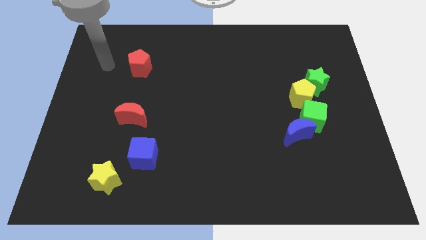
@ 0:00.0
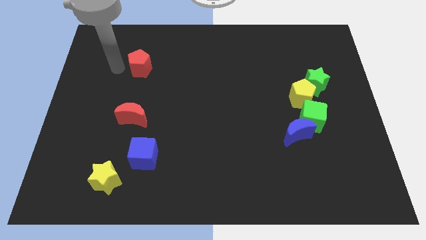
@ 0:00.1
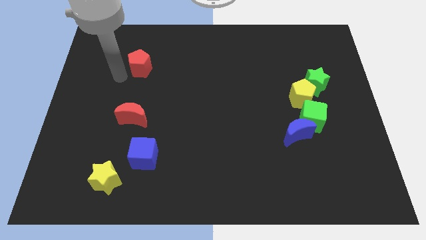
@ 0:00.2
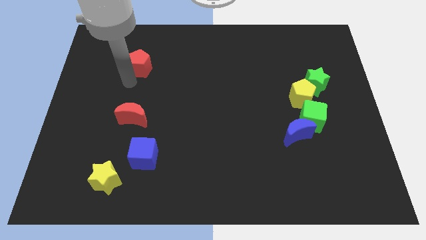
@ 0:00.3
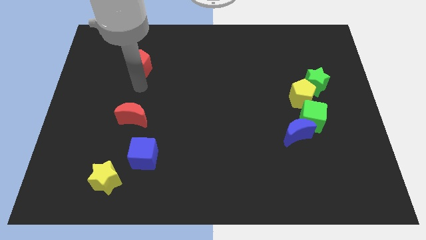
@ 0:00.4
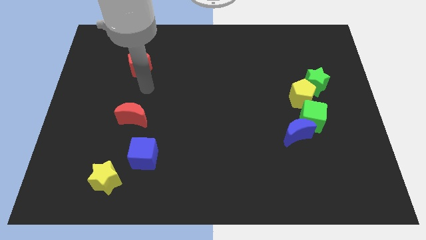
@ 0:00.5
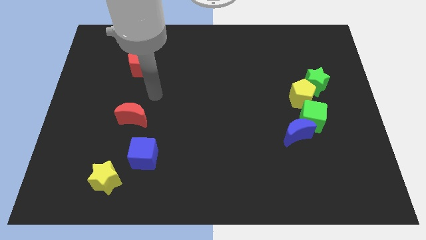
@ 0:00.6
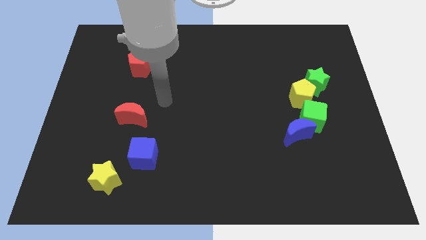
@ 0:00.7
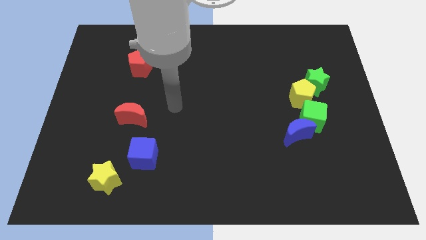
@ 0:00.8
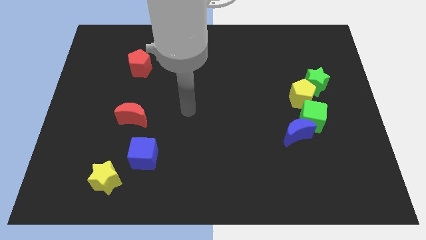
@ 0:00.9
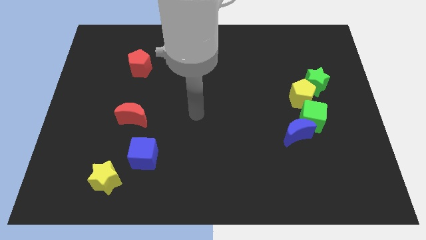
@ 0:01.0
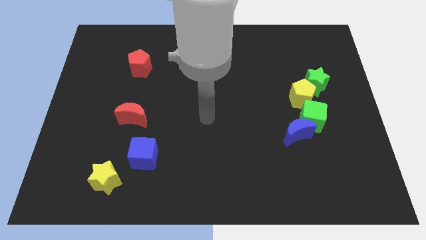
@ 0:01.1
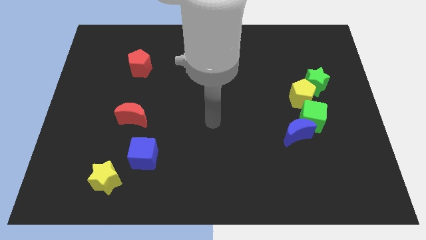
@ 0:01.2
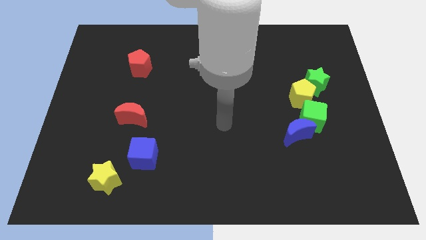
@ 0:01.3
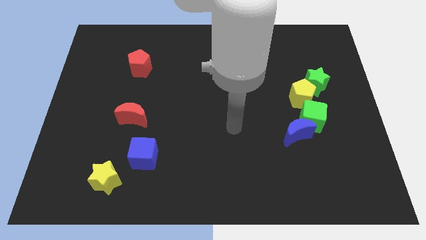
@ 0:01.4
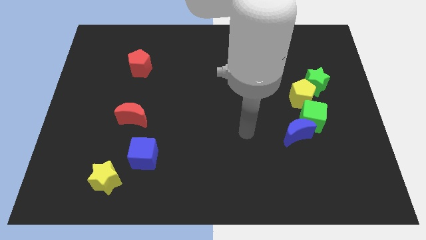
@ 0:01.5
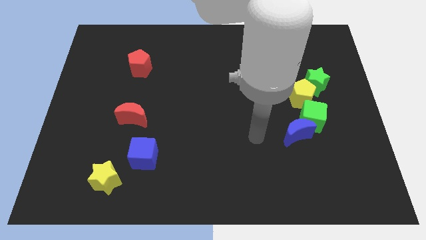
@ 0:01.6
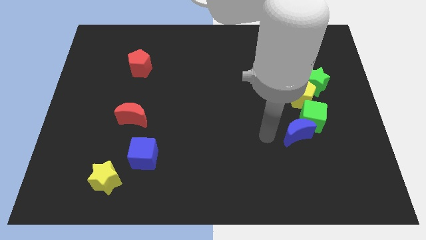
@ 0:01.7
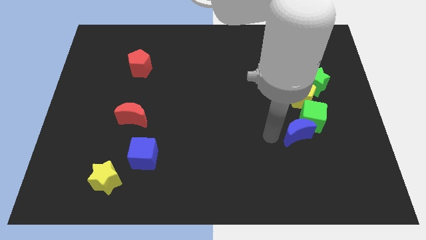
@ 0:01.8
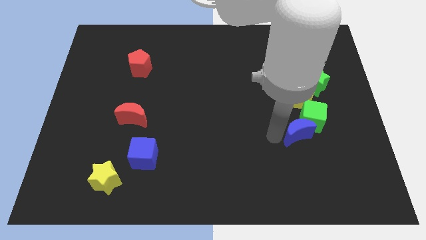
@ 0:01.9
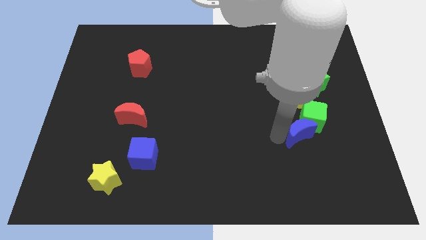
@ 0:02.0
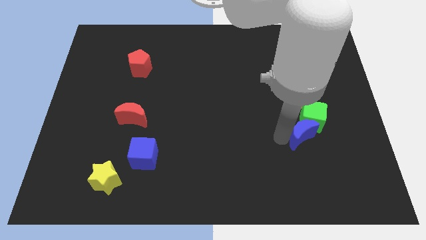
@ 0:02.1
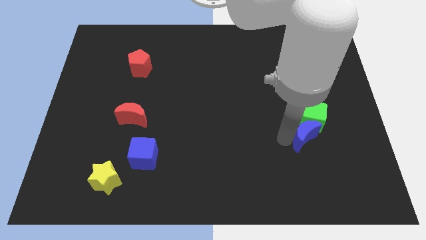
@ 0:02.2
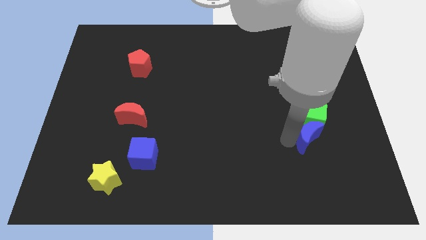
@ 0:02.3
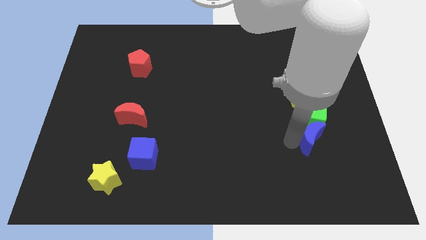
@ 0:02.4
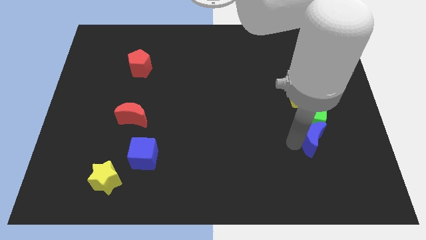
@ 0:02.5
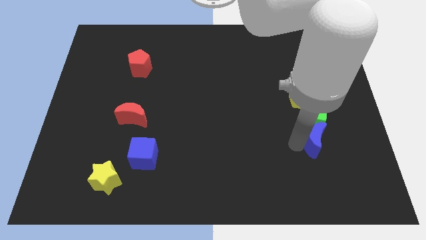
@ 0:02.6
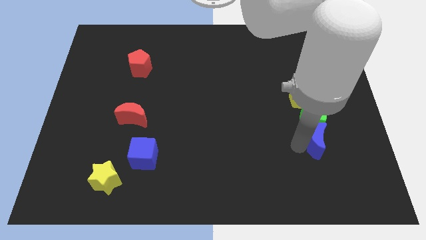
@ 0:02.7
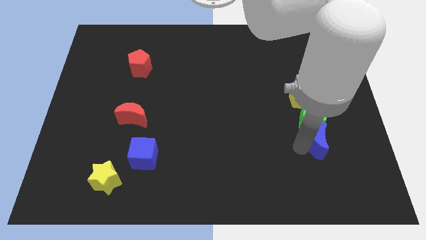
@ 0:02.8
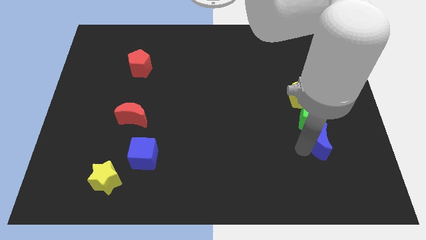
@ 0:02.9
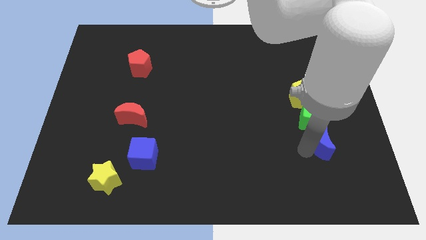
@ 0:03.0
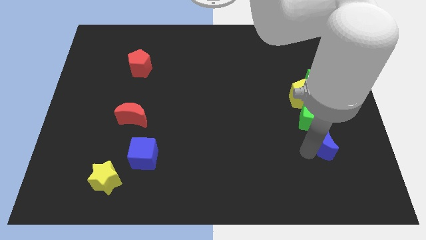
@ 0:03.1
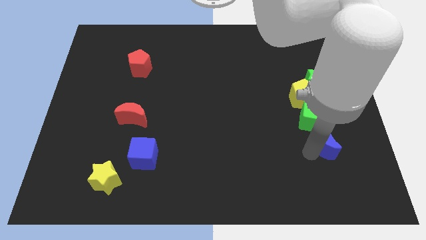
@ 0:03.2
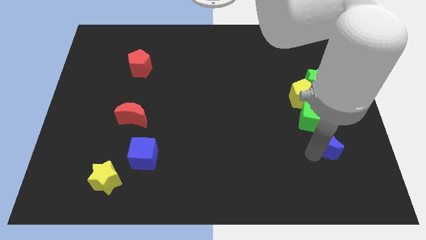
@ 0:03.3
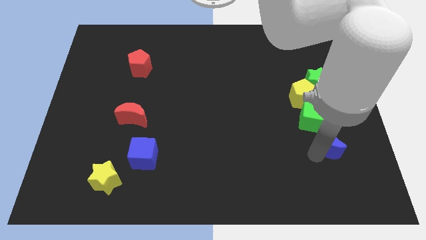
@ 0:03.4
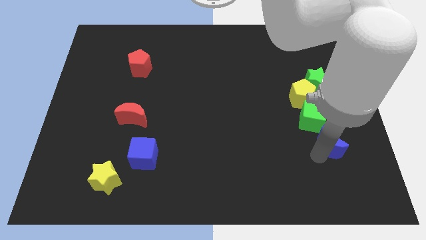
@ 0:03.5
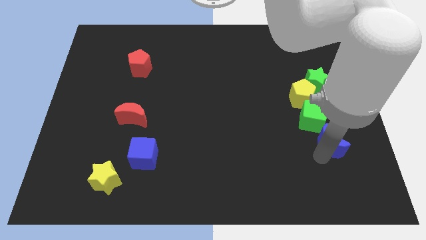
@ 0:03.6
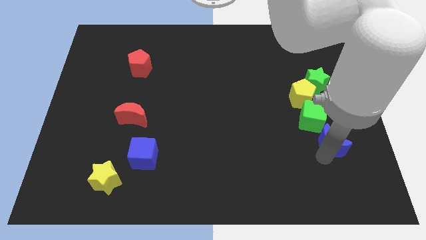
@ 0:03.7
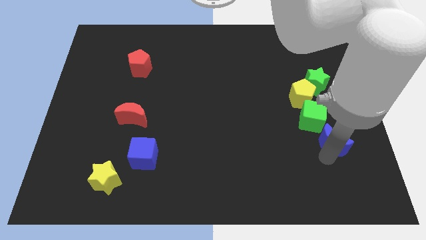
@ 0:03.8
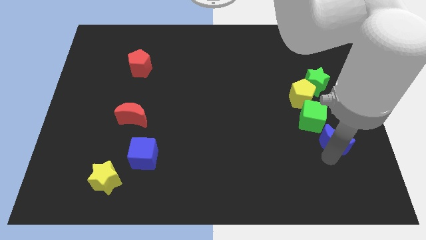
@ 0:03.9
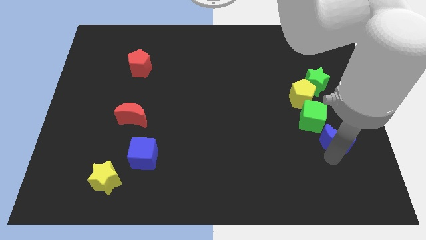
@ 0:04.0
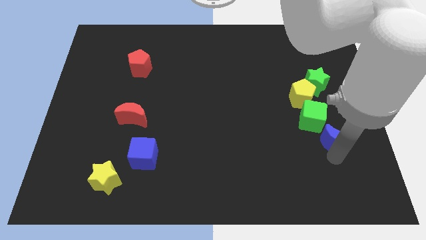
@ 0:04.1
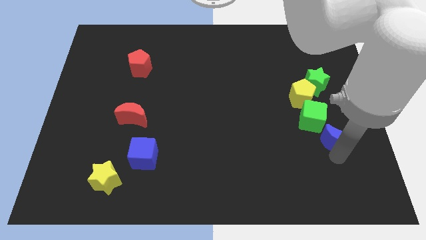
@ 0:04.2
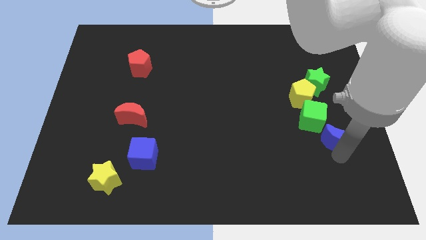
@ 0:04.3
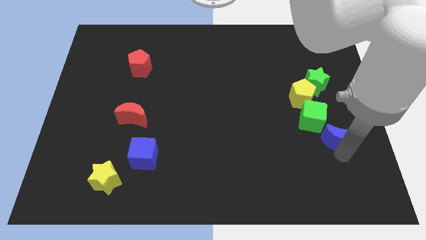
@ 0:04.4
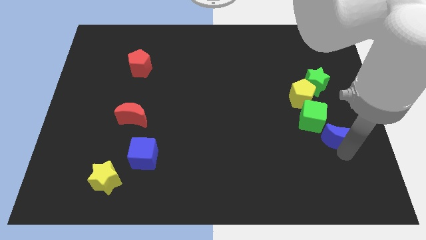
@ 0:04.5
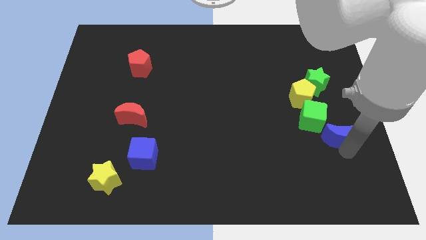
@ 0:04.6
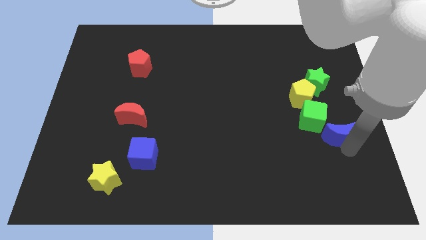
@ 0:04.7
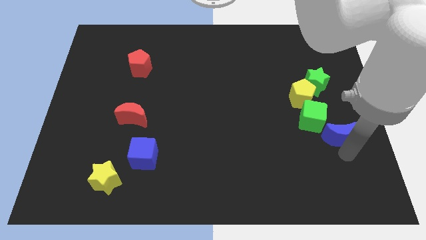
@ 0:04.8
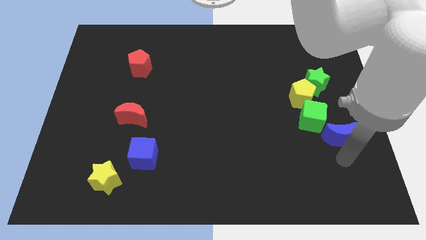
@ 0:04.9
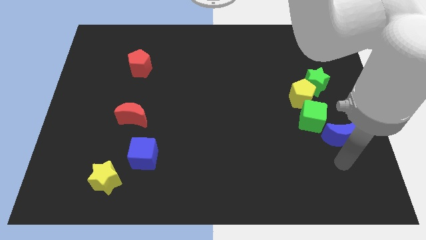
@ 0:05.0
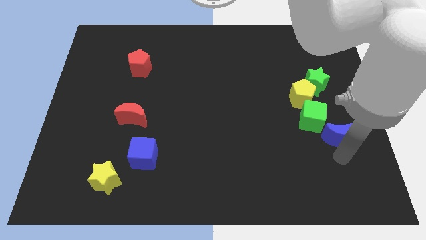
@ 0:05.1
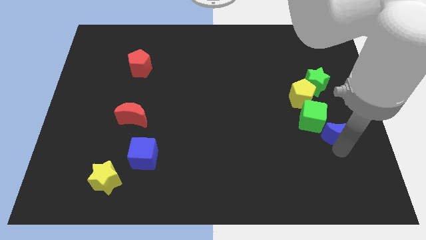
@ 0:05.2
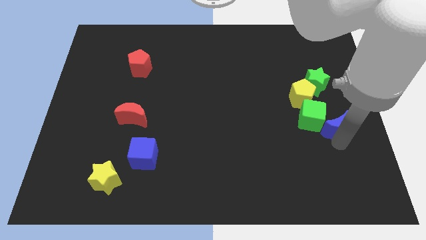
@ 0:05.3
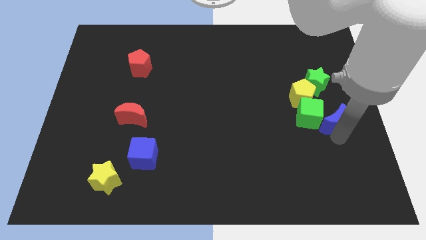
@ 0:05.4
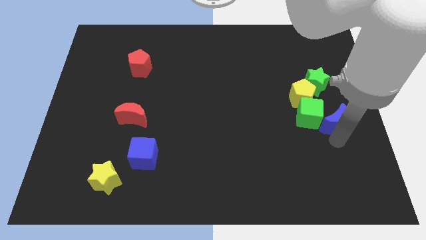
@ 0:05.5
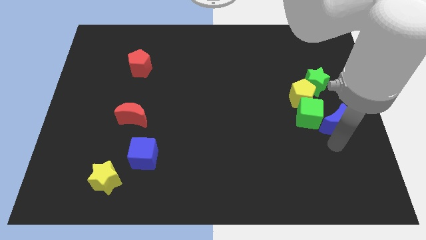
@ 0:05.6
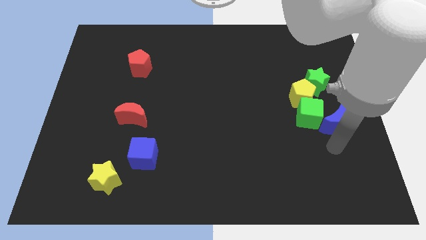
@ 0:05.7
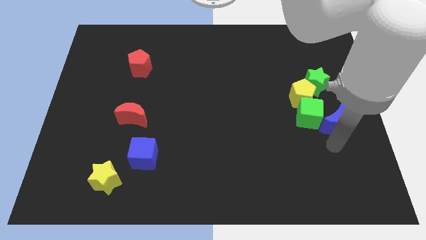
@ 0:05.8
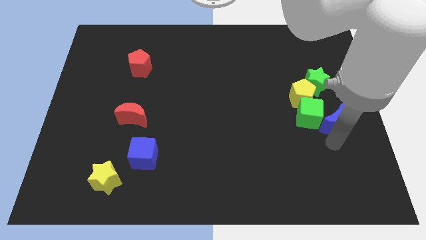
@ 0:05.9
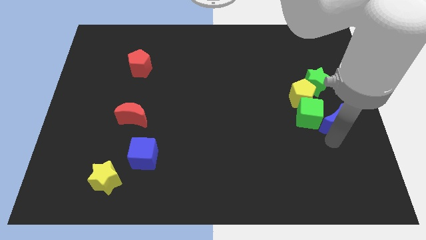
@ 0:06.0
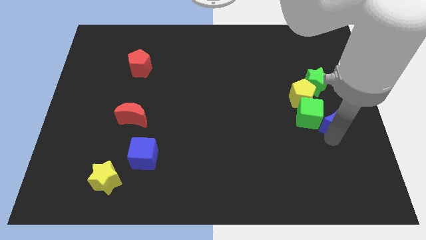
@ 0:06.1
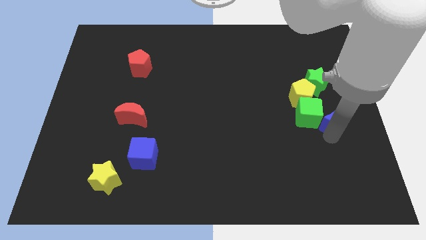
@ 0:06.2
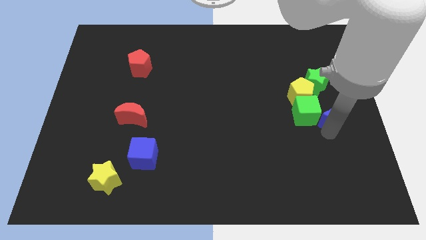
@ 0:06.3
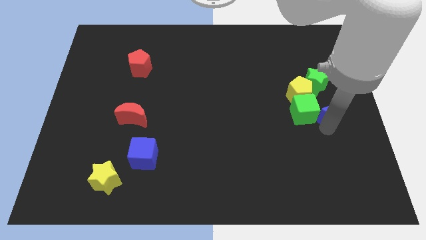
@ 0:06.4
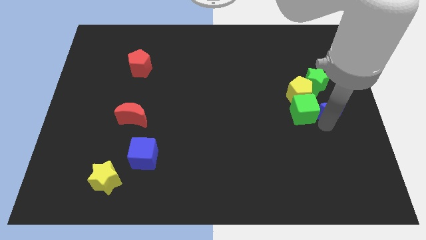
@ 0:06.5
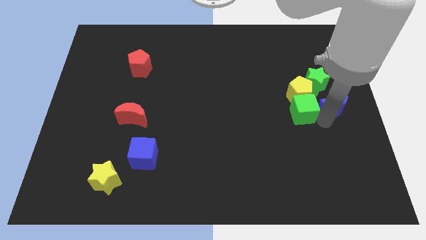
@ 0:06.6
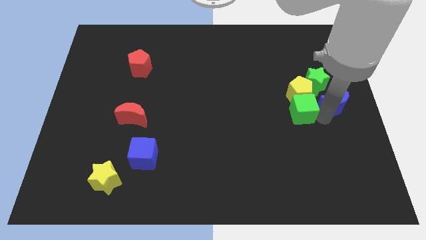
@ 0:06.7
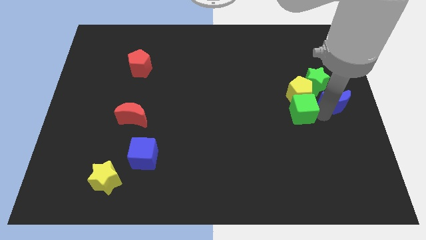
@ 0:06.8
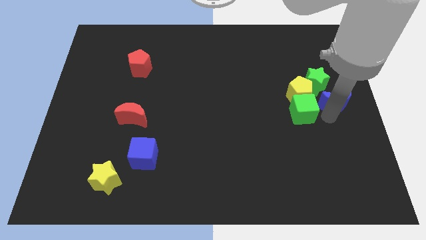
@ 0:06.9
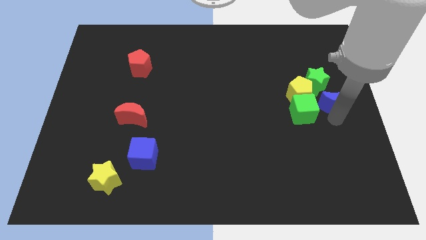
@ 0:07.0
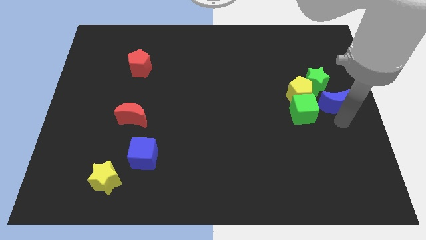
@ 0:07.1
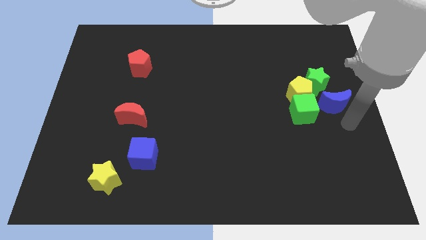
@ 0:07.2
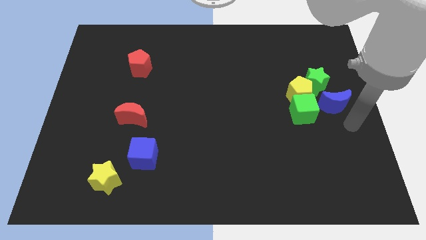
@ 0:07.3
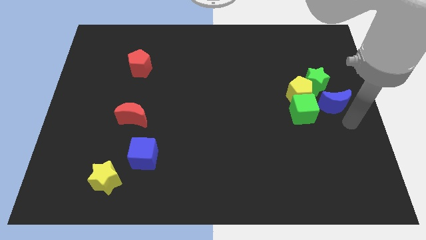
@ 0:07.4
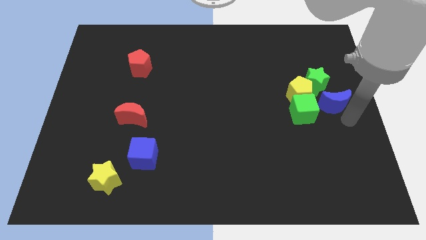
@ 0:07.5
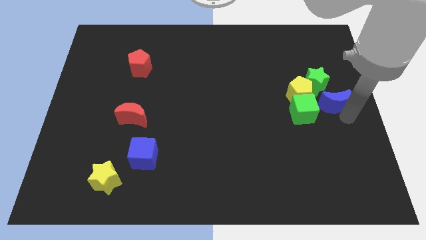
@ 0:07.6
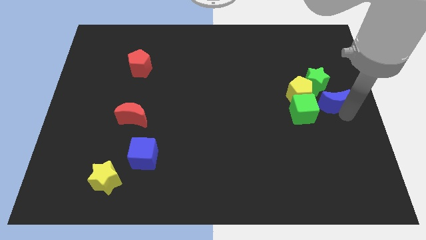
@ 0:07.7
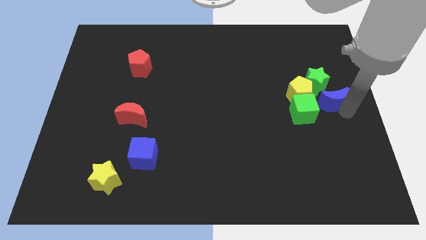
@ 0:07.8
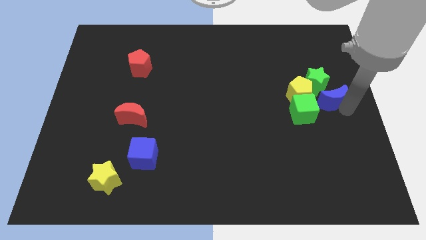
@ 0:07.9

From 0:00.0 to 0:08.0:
push the blue moon to the green star
